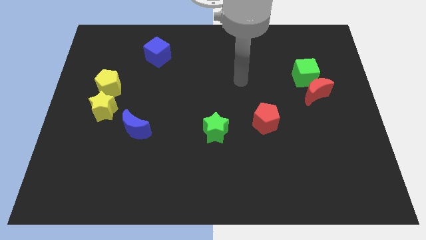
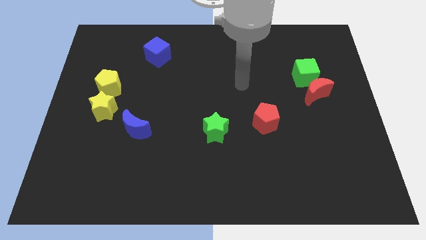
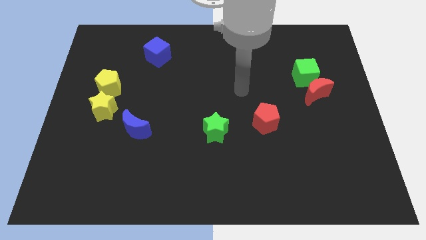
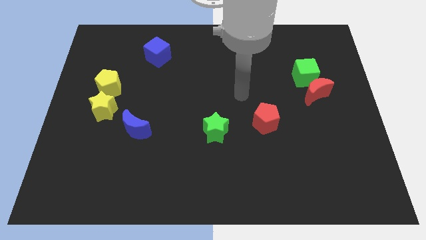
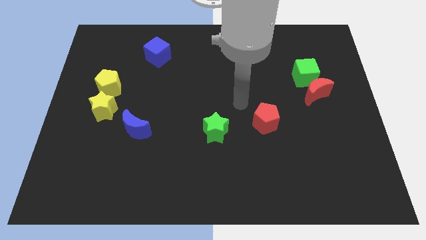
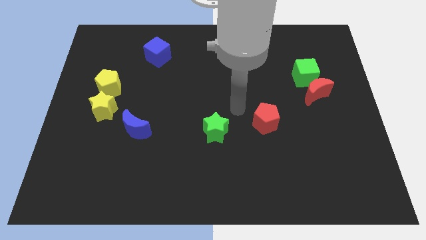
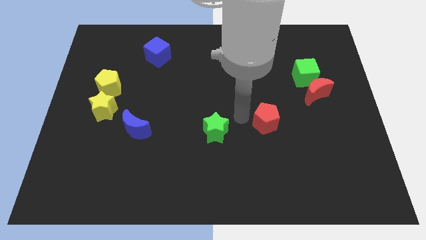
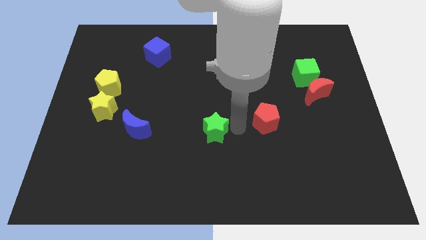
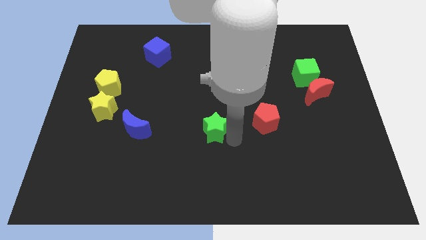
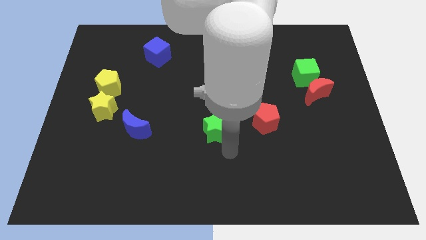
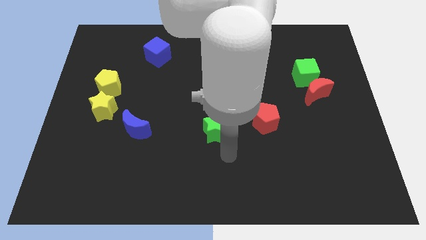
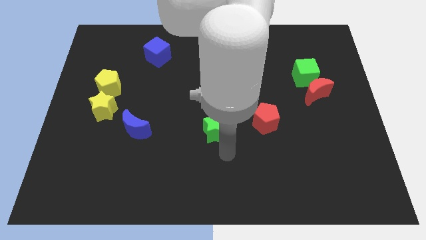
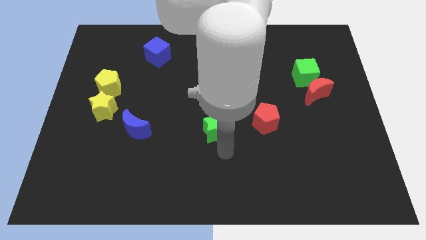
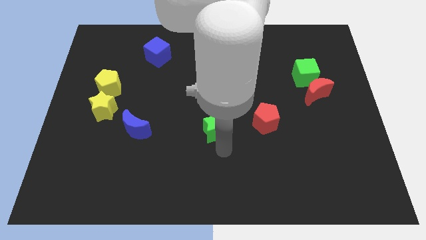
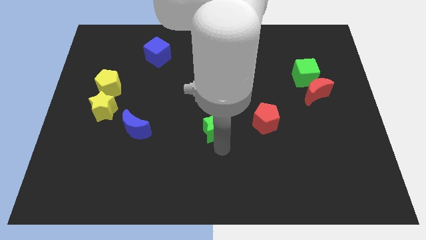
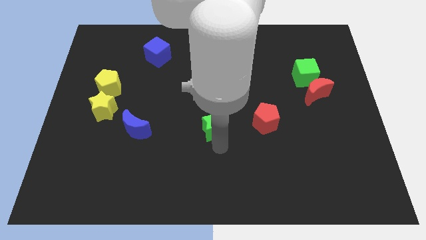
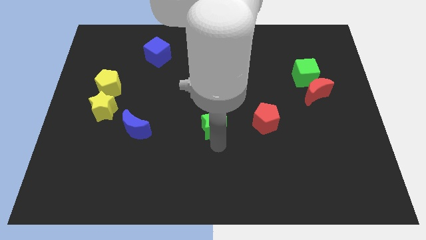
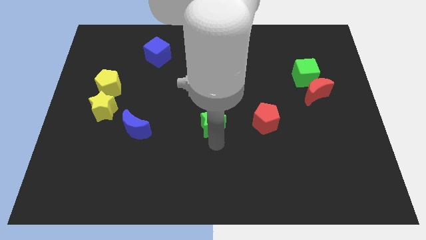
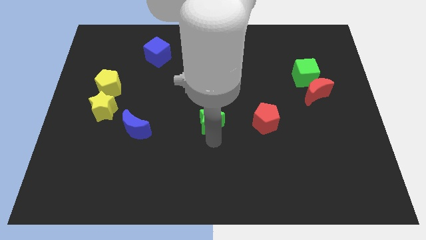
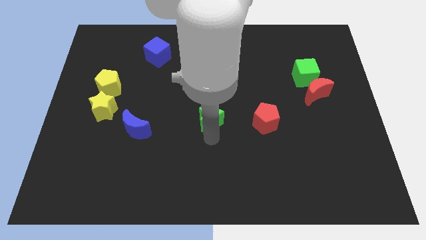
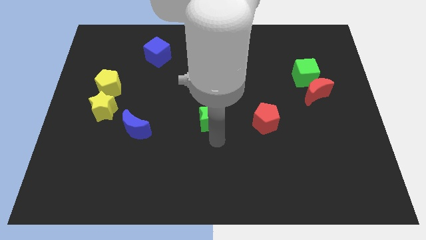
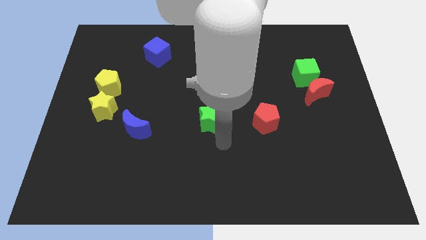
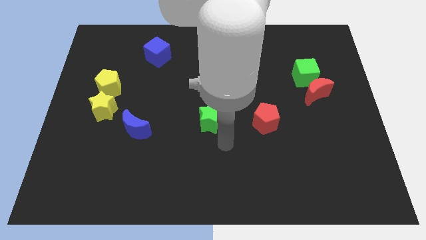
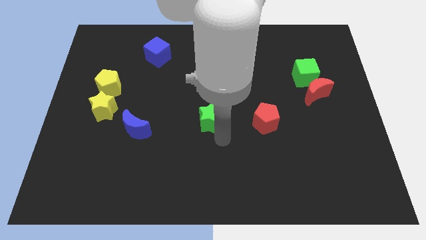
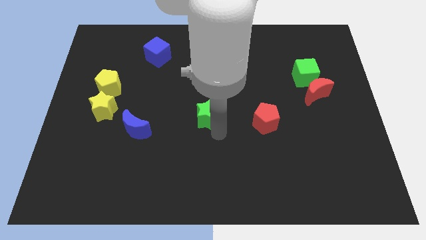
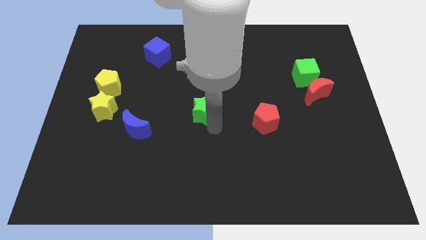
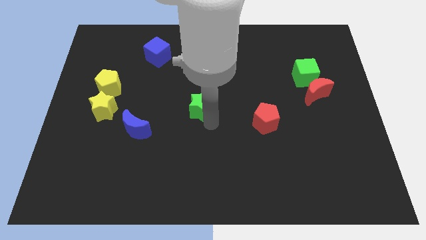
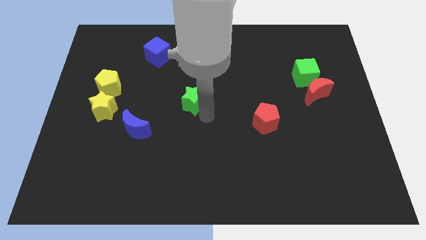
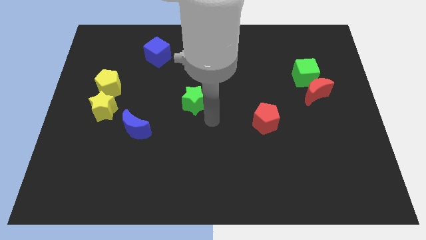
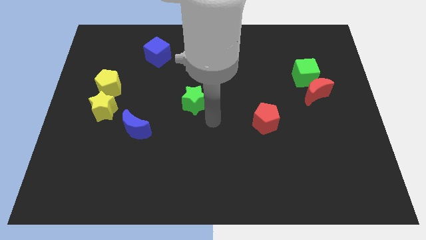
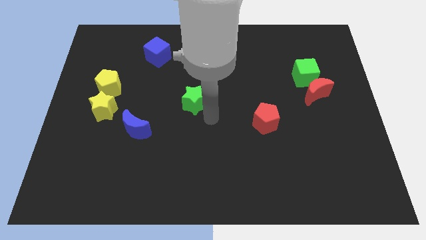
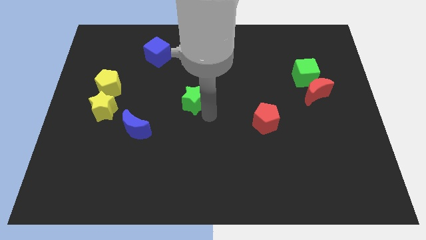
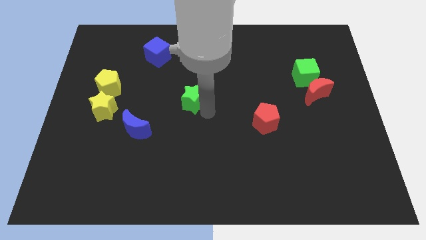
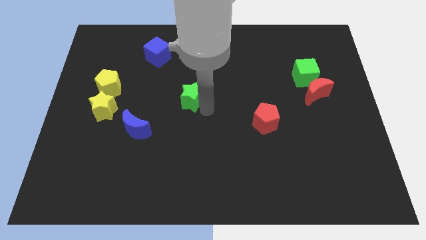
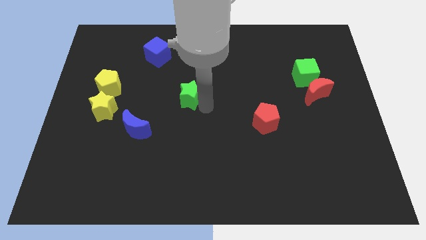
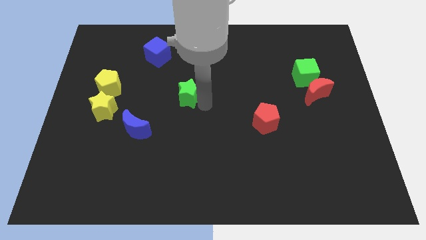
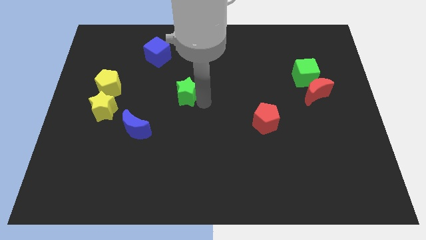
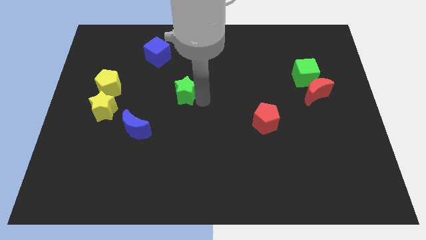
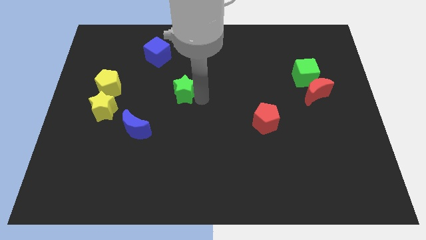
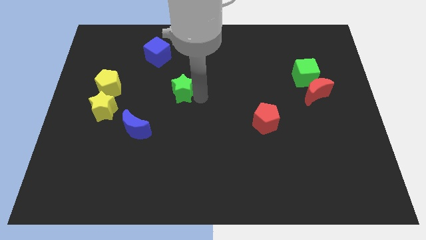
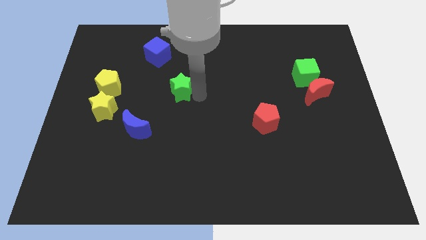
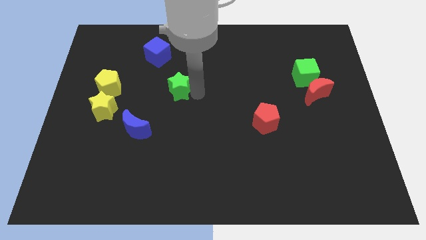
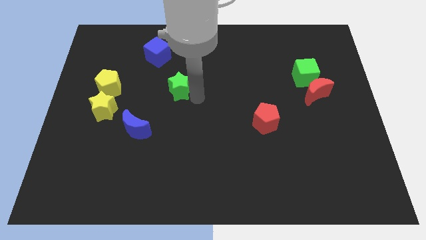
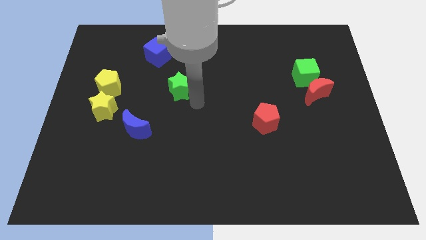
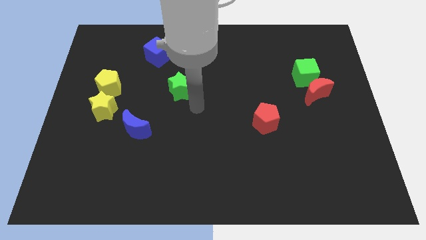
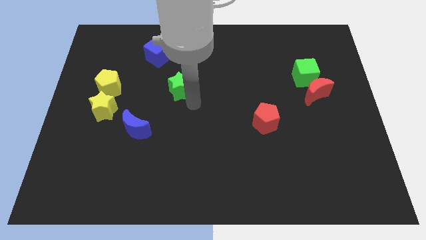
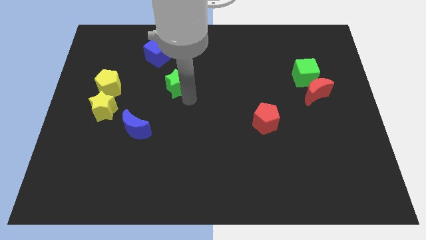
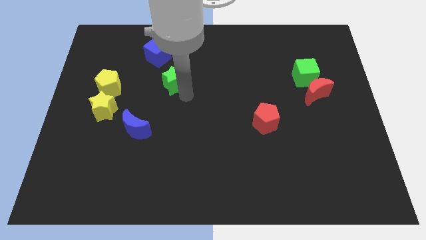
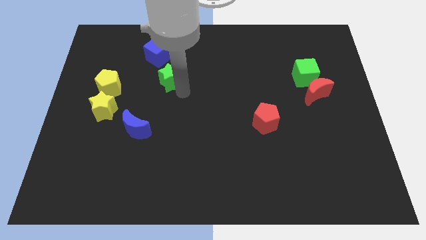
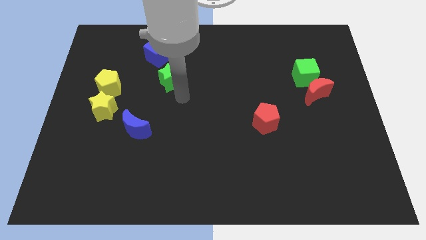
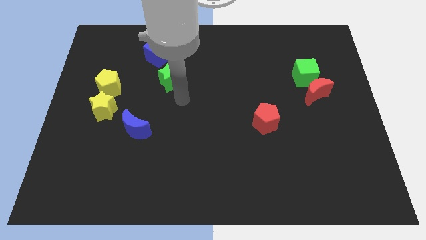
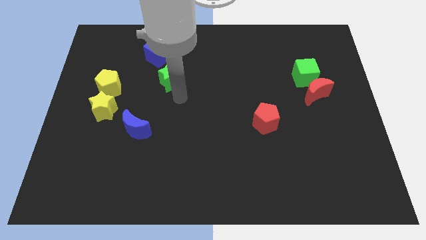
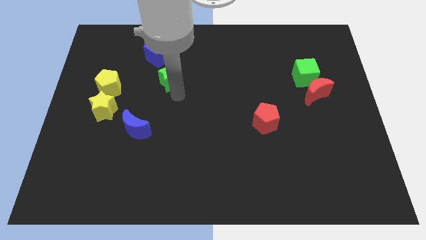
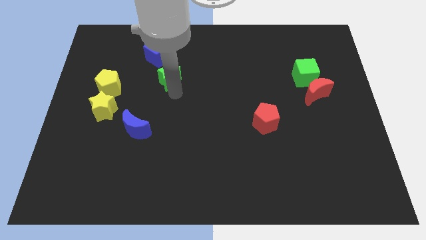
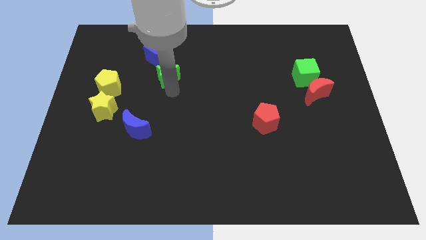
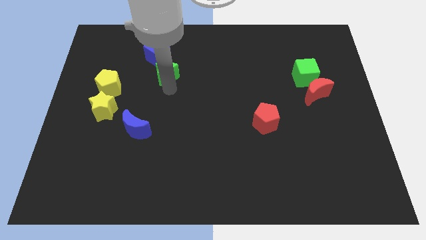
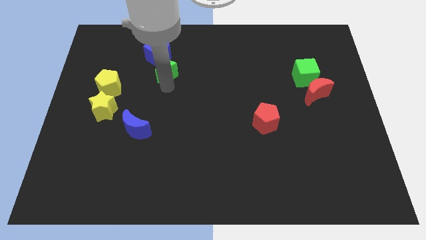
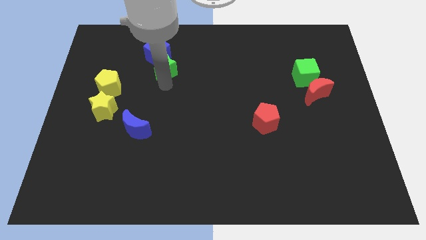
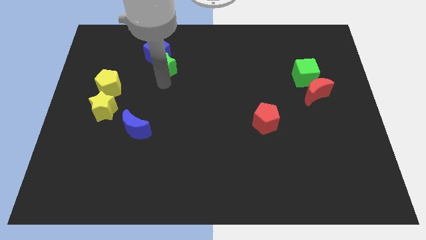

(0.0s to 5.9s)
slide the green star close to the blue cube

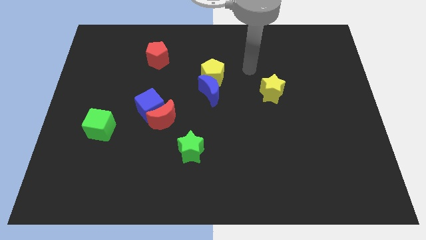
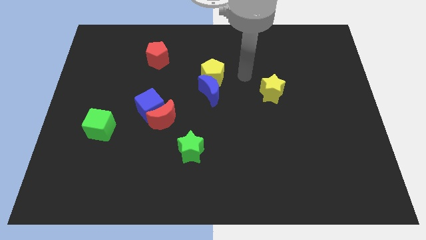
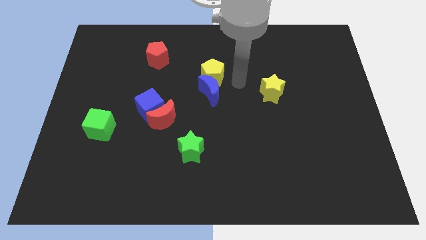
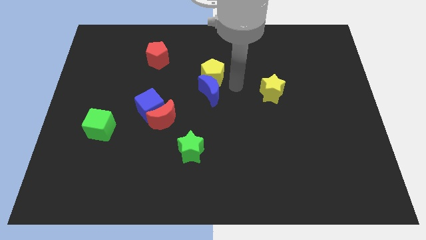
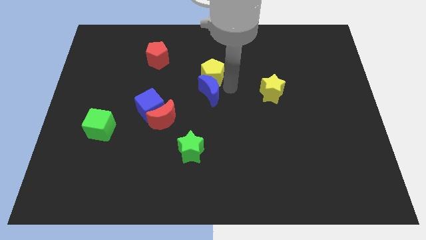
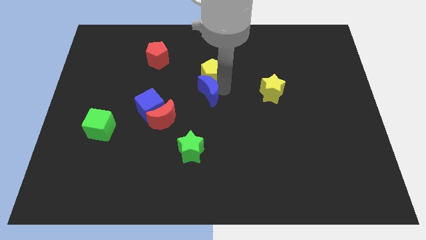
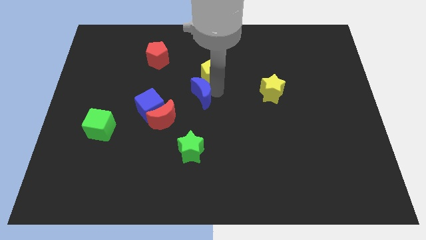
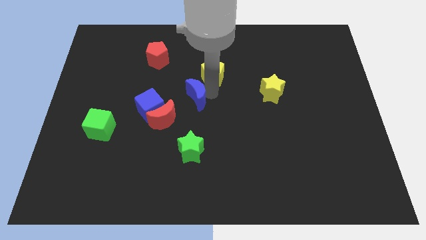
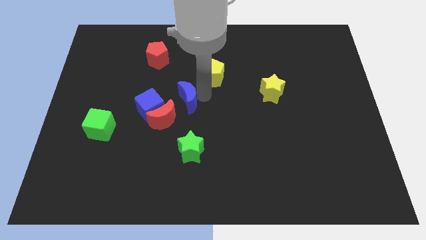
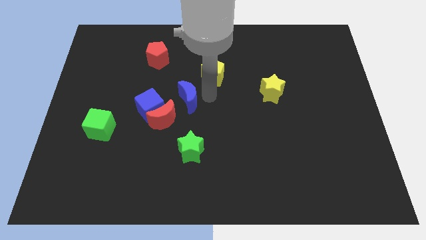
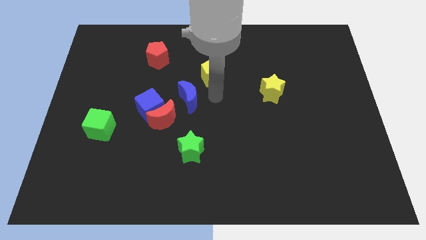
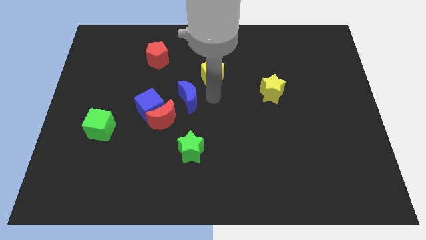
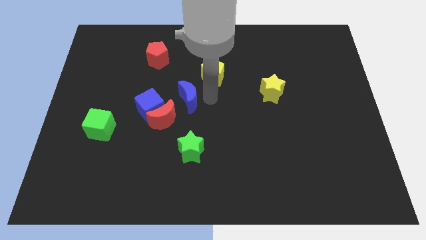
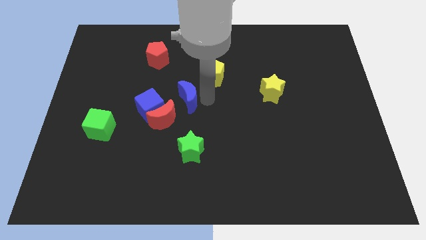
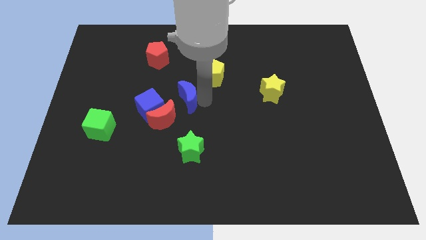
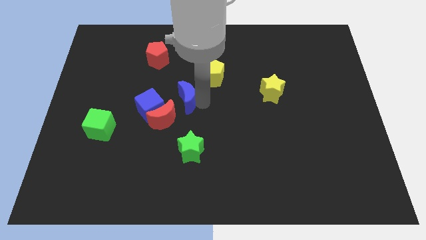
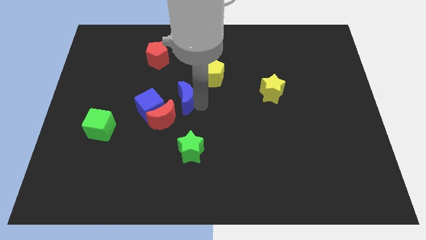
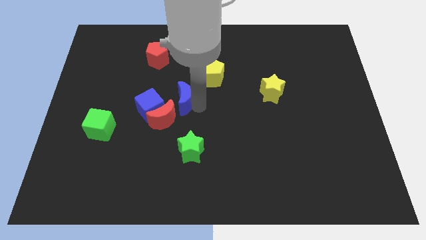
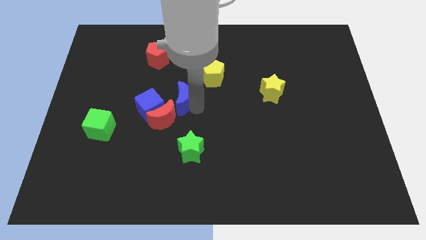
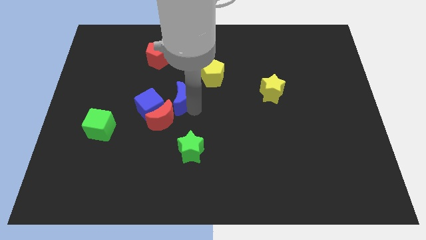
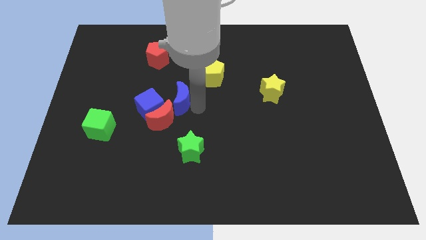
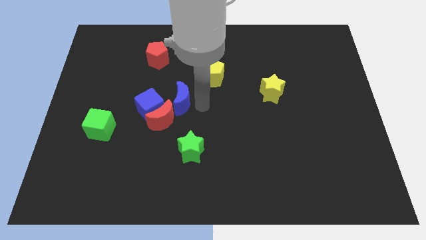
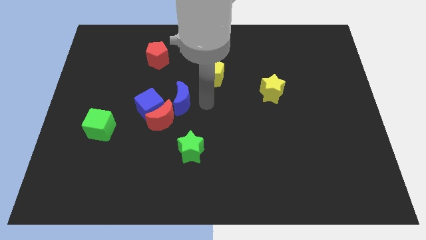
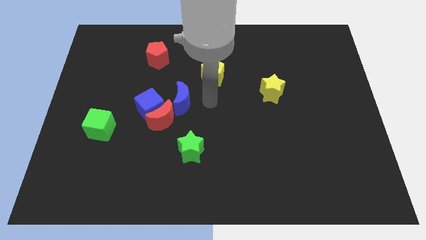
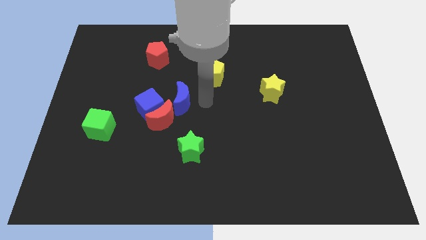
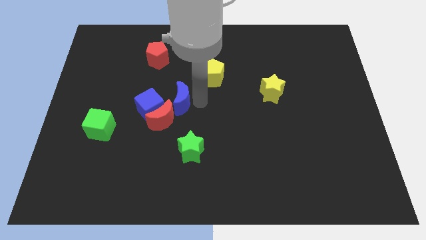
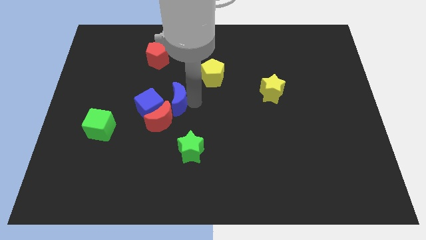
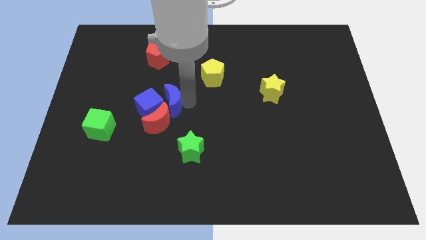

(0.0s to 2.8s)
move the blue moon close to the blue cube
